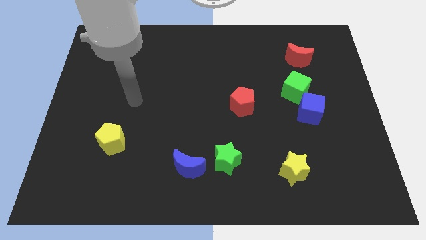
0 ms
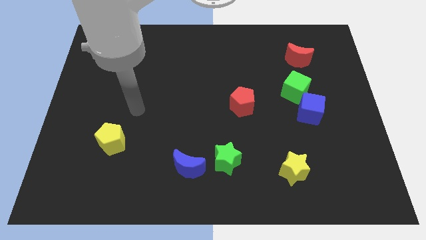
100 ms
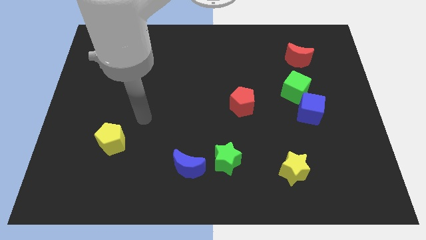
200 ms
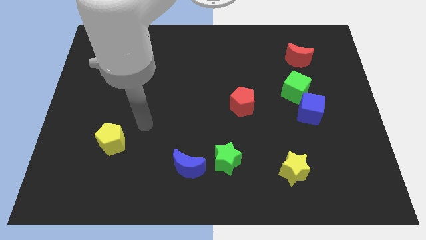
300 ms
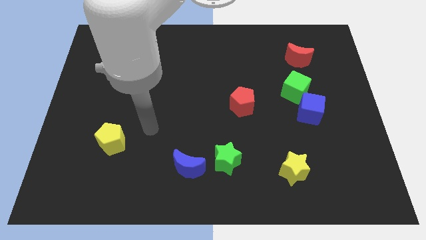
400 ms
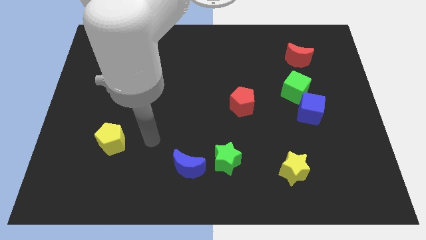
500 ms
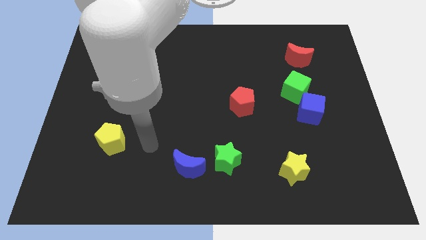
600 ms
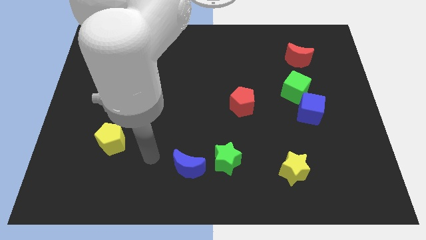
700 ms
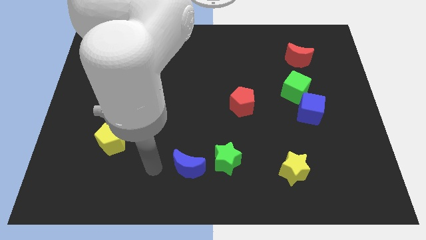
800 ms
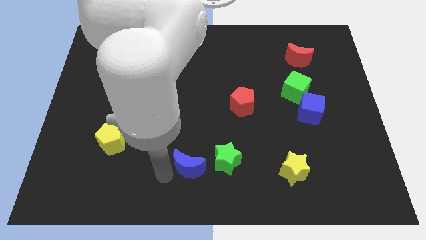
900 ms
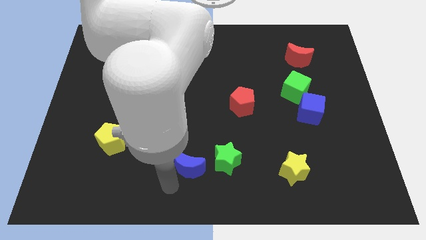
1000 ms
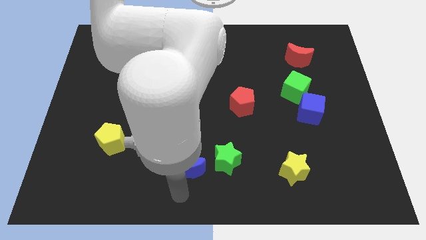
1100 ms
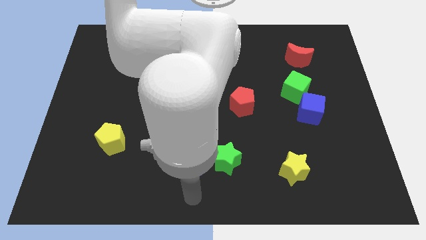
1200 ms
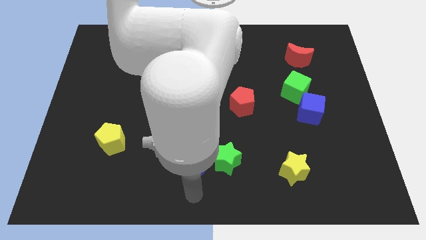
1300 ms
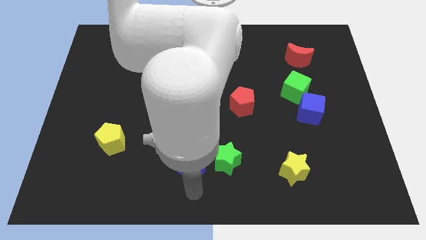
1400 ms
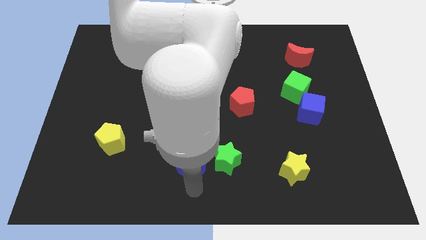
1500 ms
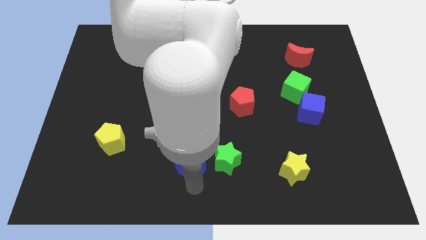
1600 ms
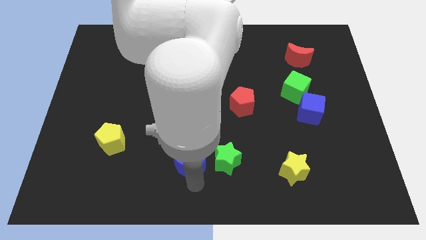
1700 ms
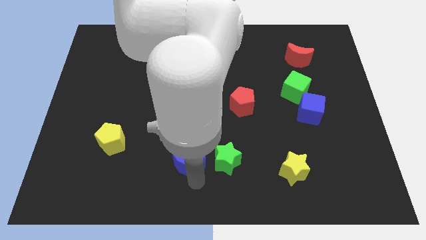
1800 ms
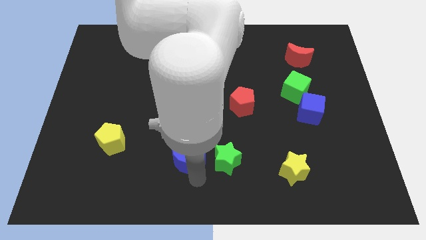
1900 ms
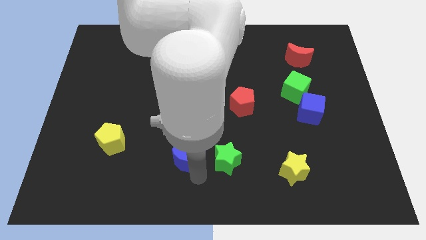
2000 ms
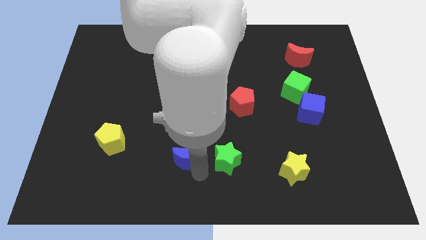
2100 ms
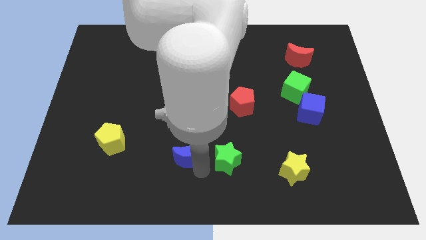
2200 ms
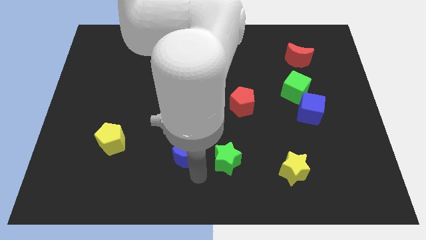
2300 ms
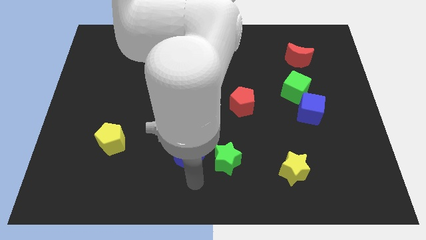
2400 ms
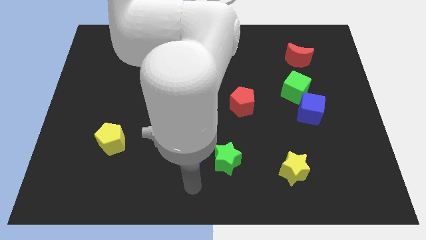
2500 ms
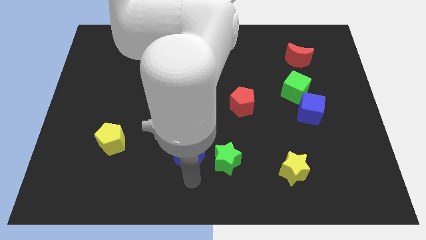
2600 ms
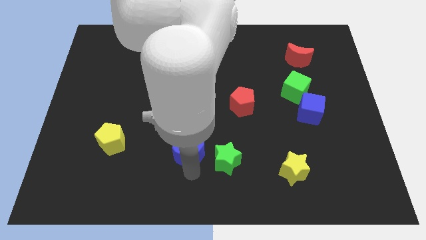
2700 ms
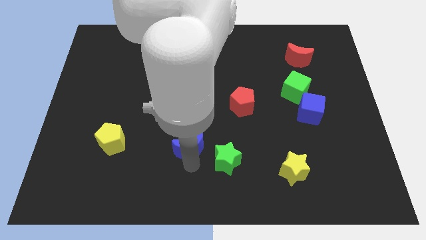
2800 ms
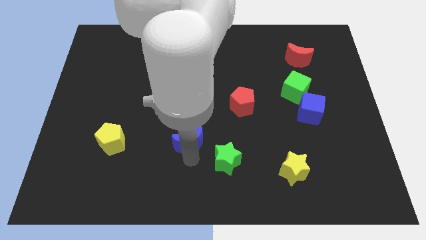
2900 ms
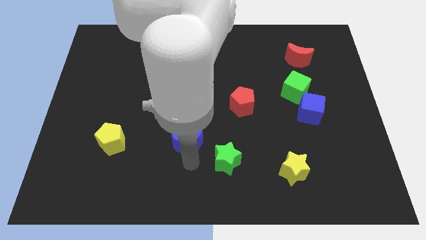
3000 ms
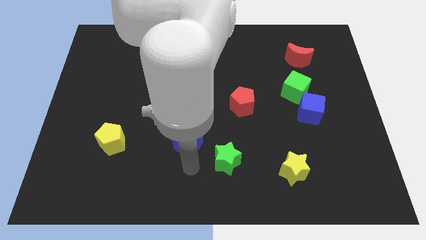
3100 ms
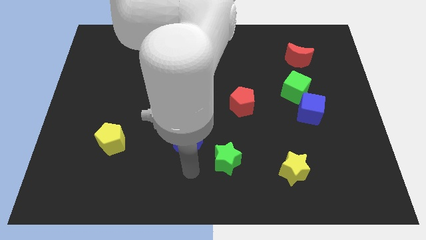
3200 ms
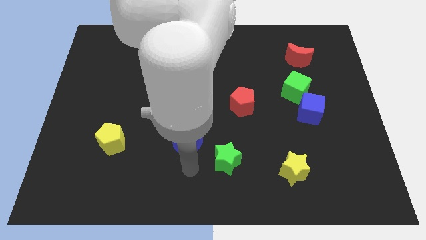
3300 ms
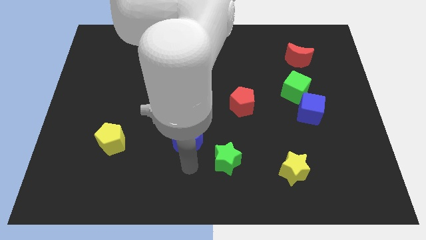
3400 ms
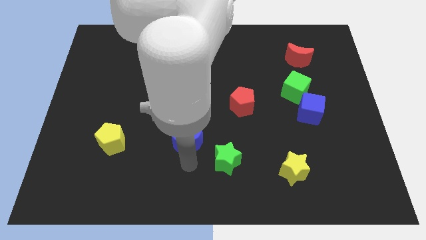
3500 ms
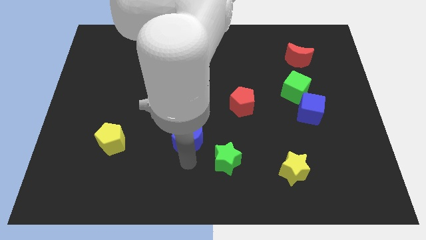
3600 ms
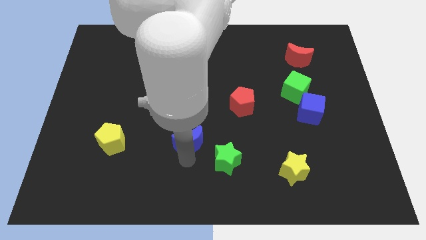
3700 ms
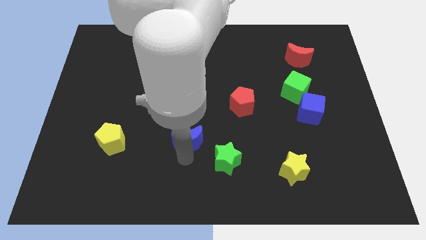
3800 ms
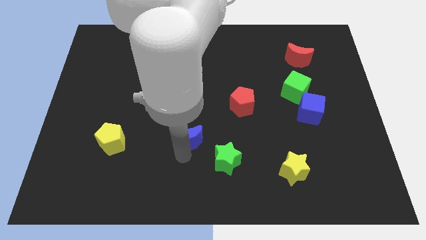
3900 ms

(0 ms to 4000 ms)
slightly move the blue moon upwards

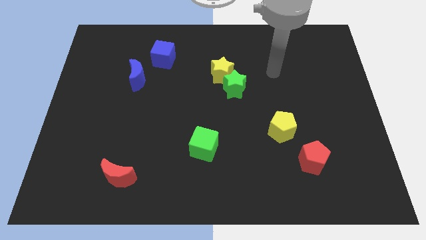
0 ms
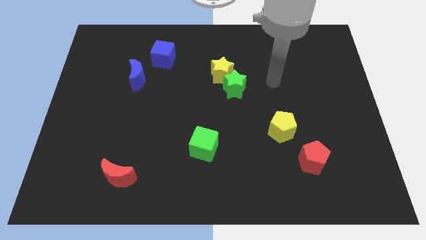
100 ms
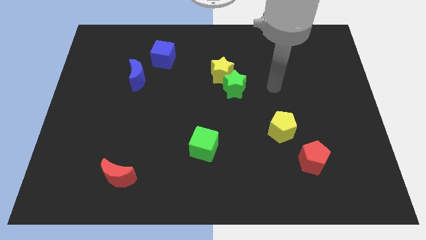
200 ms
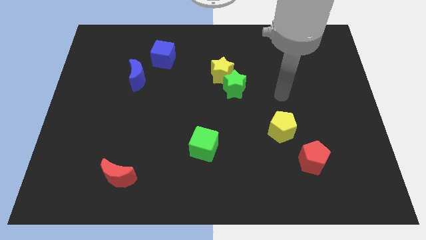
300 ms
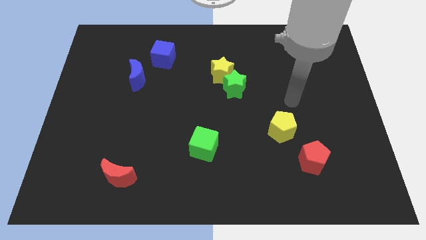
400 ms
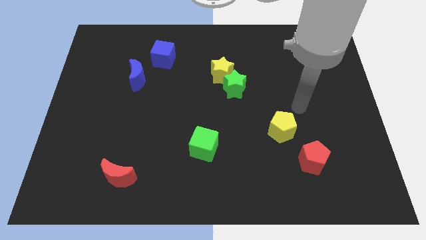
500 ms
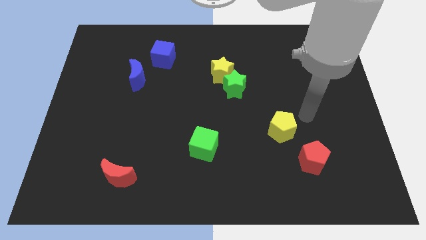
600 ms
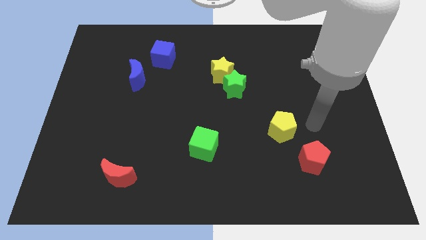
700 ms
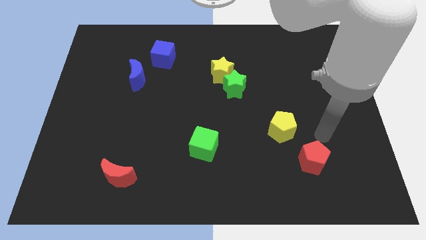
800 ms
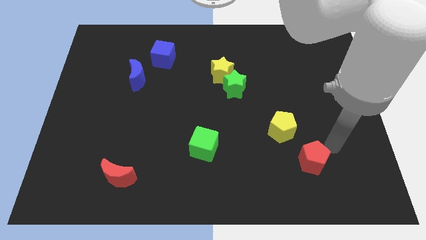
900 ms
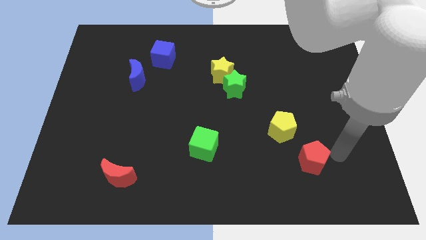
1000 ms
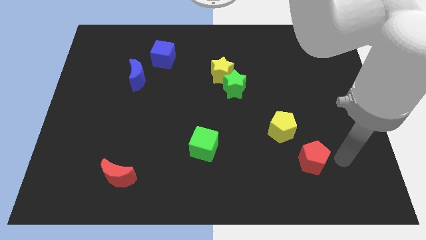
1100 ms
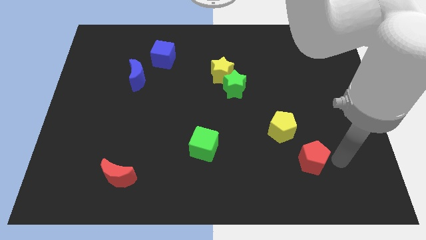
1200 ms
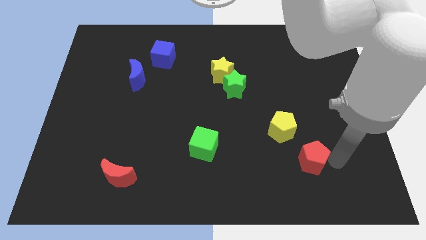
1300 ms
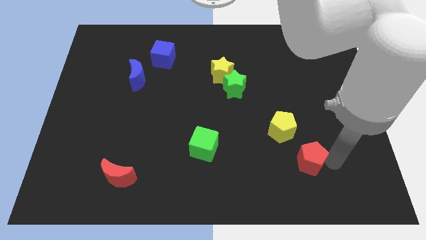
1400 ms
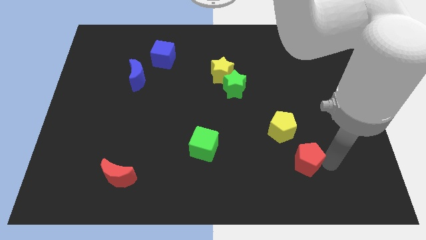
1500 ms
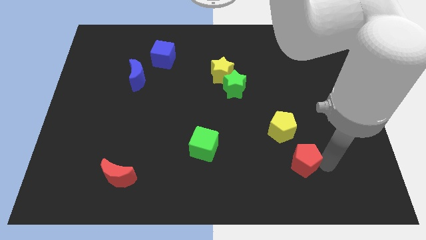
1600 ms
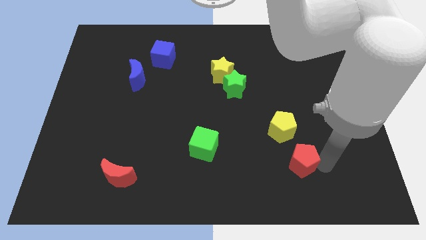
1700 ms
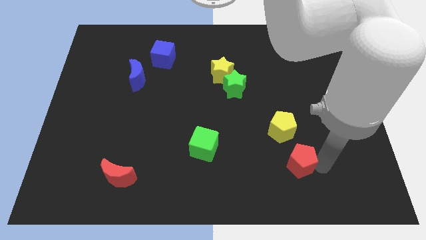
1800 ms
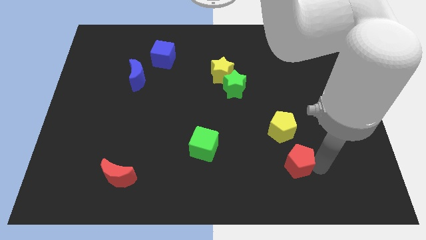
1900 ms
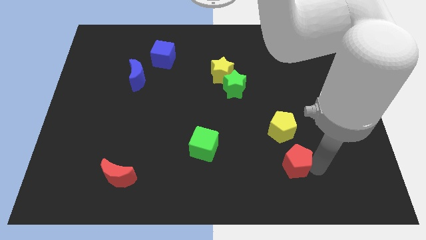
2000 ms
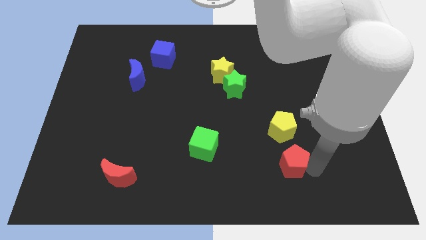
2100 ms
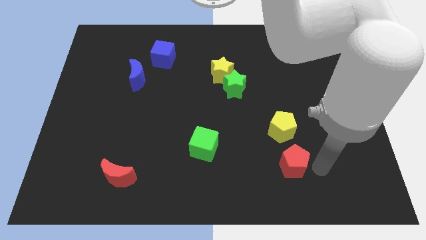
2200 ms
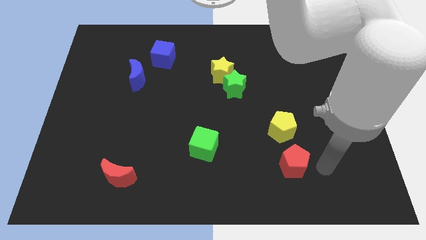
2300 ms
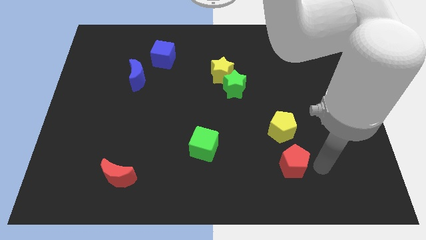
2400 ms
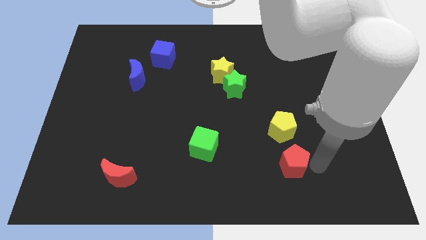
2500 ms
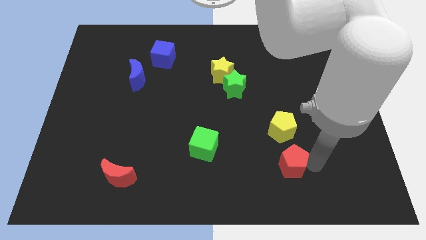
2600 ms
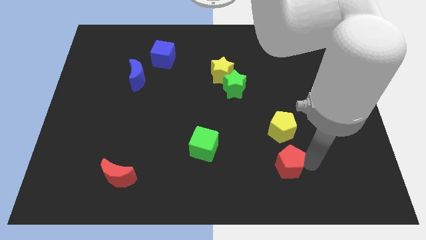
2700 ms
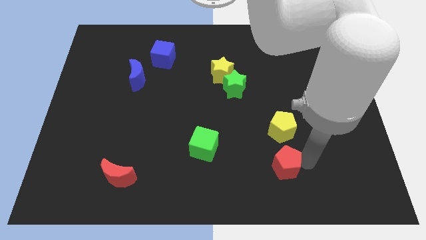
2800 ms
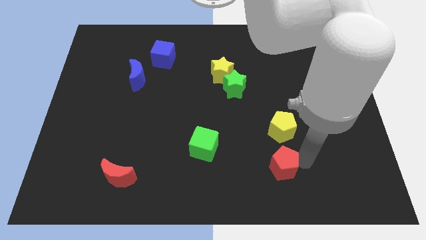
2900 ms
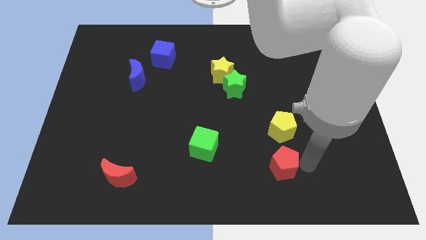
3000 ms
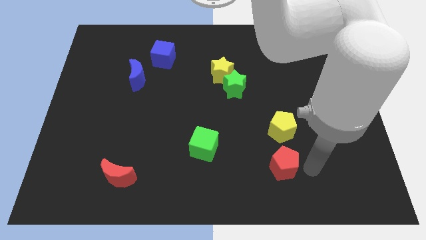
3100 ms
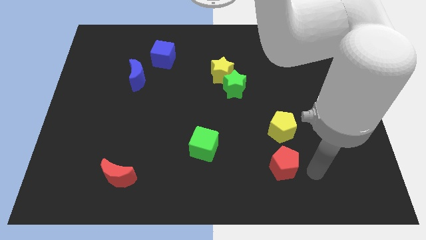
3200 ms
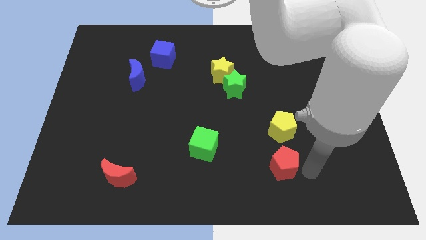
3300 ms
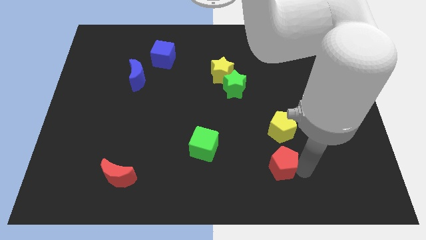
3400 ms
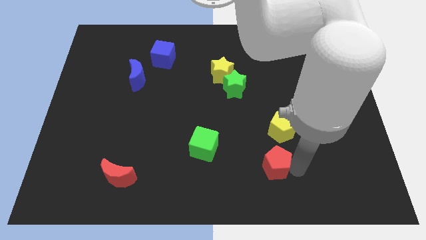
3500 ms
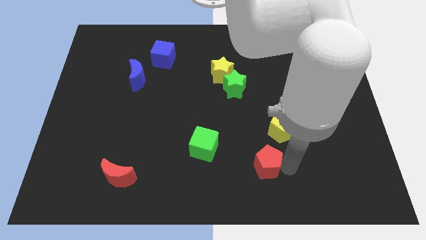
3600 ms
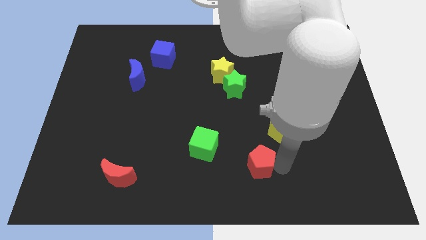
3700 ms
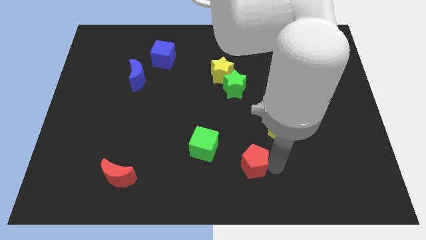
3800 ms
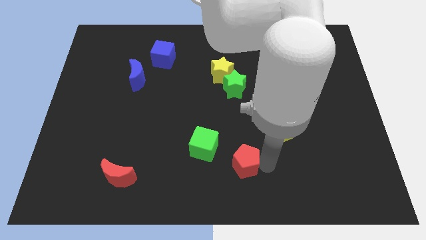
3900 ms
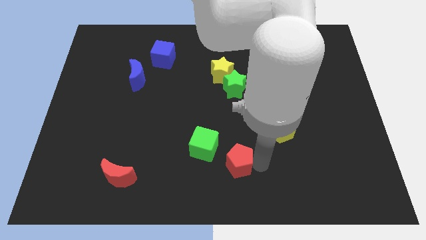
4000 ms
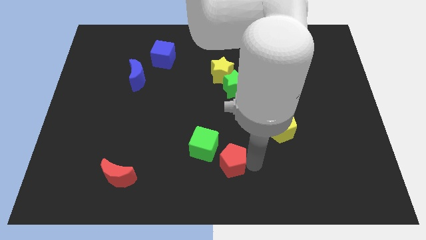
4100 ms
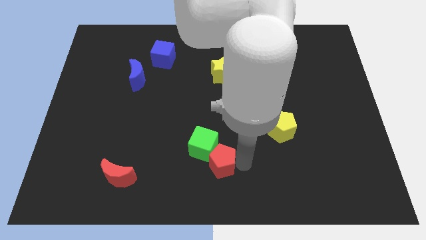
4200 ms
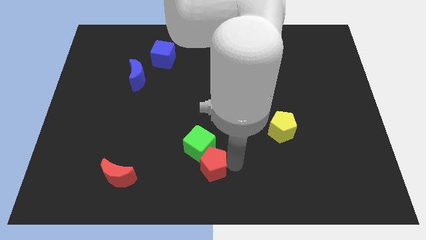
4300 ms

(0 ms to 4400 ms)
slide the red pentagon left
